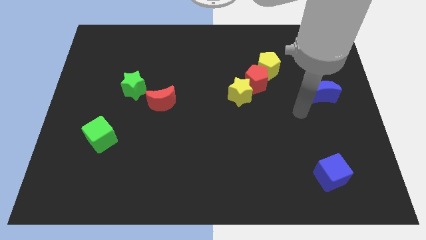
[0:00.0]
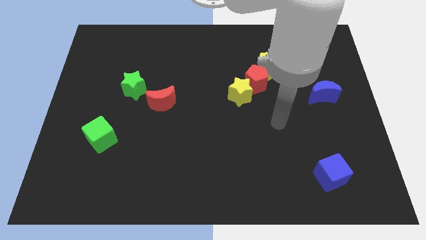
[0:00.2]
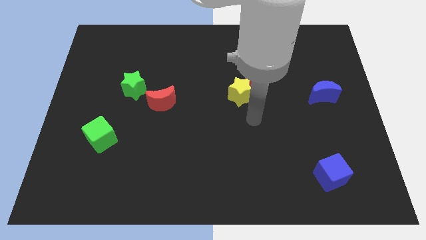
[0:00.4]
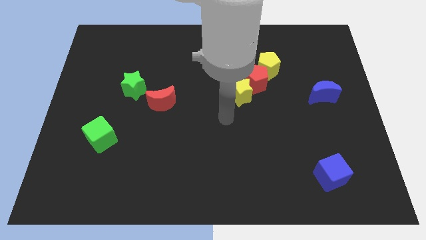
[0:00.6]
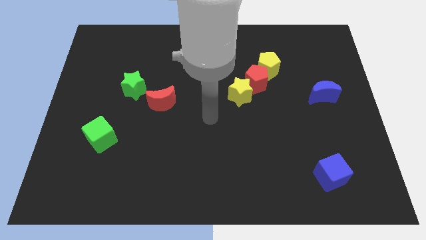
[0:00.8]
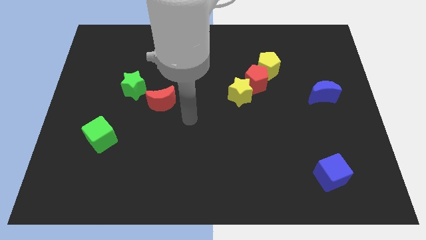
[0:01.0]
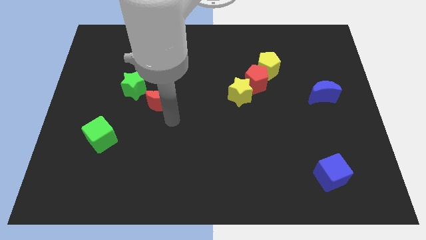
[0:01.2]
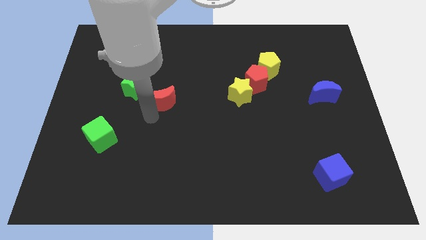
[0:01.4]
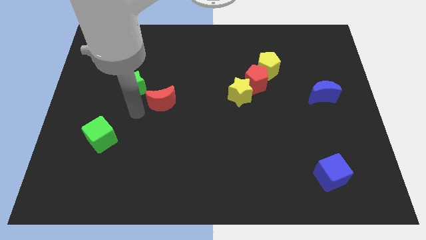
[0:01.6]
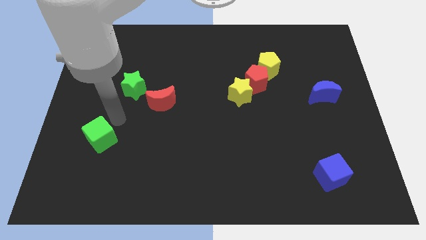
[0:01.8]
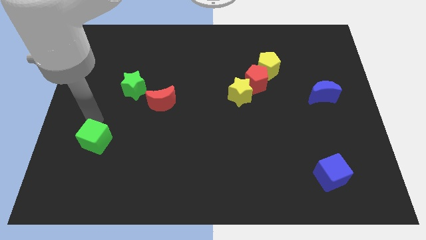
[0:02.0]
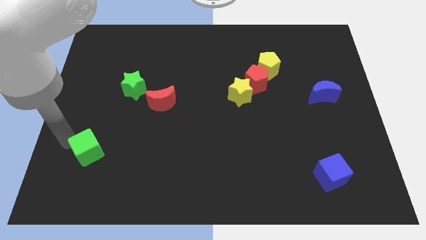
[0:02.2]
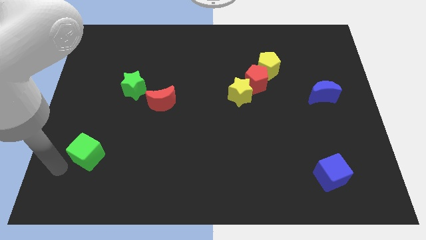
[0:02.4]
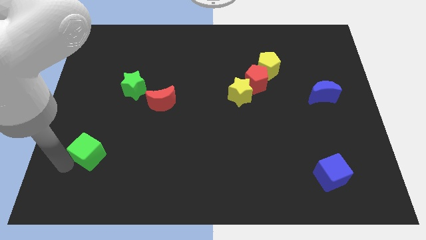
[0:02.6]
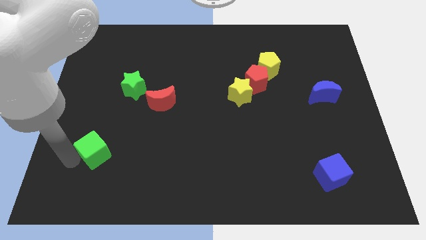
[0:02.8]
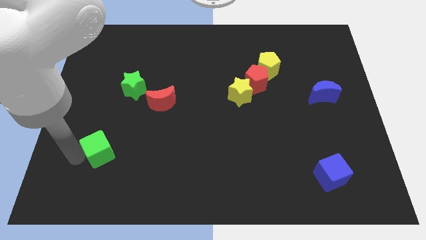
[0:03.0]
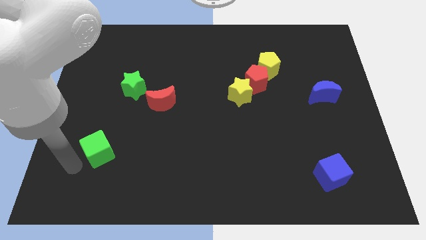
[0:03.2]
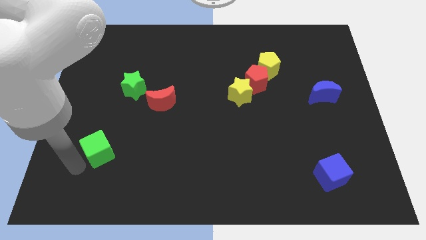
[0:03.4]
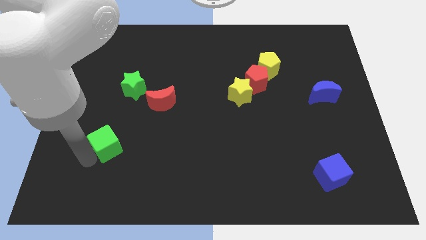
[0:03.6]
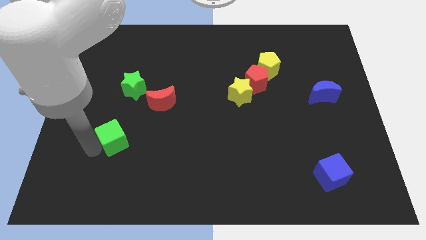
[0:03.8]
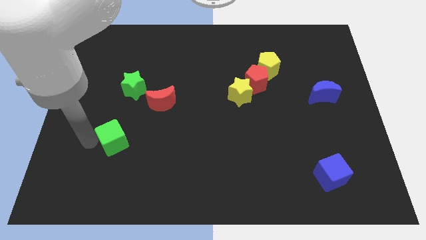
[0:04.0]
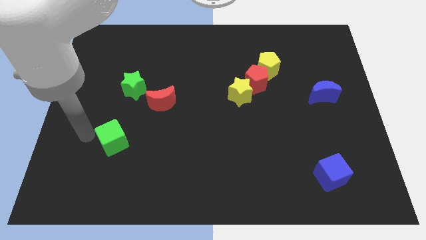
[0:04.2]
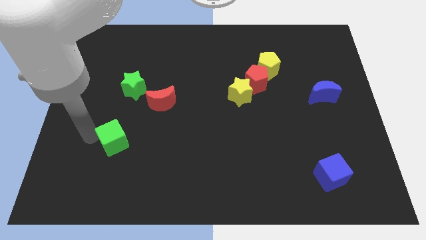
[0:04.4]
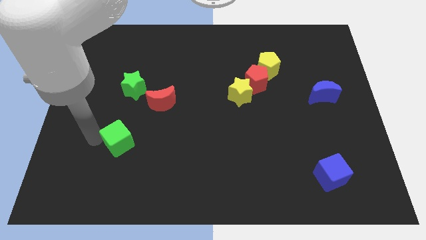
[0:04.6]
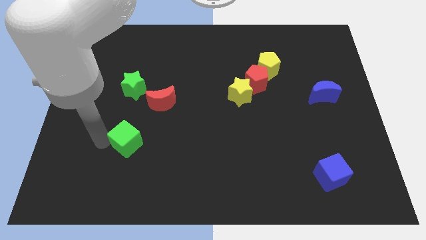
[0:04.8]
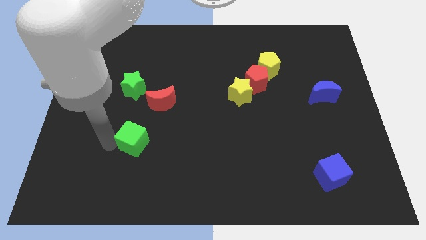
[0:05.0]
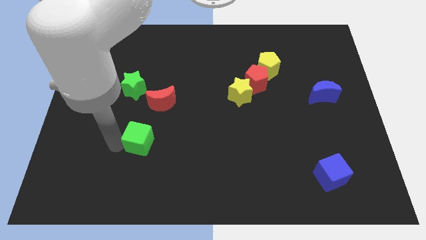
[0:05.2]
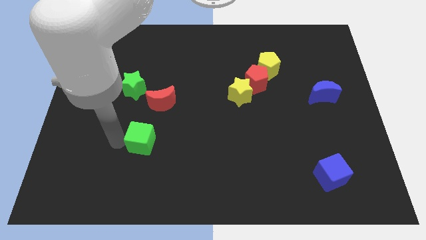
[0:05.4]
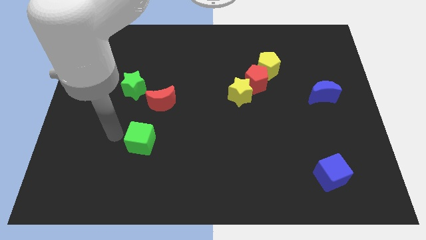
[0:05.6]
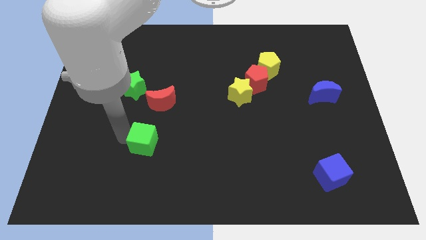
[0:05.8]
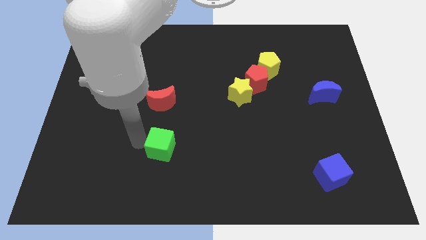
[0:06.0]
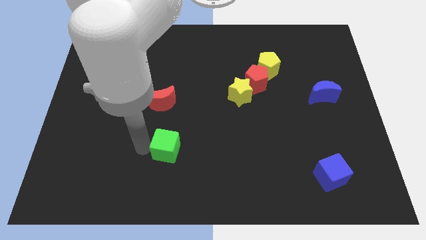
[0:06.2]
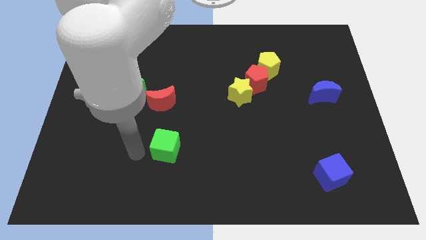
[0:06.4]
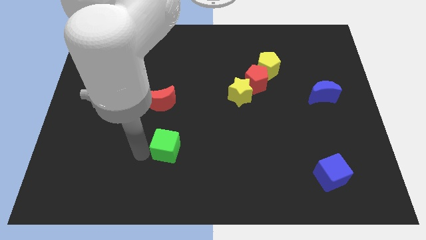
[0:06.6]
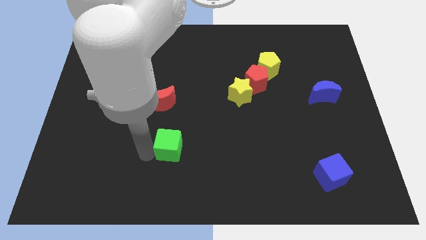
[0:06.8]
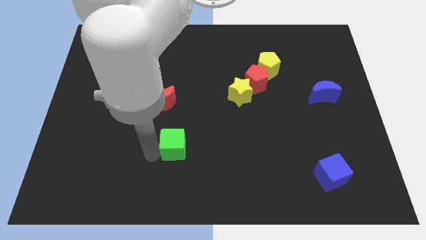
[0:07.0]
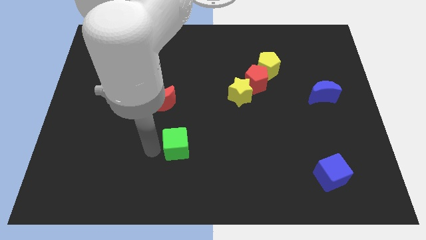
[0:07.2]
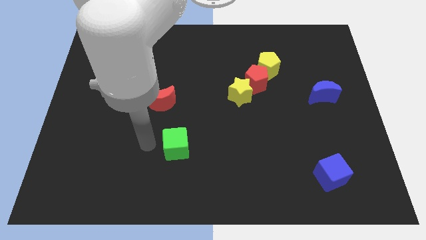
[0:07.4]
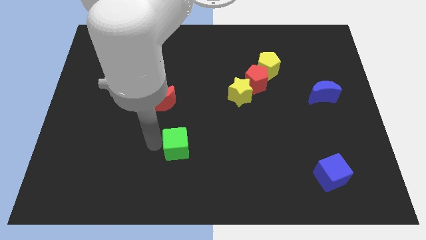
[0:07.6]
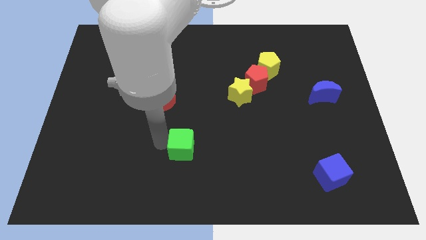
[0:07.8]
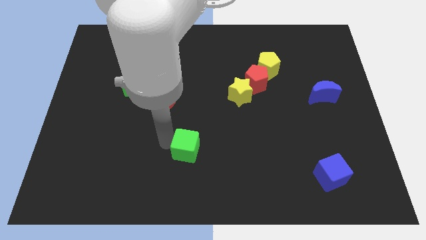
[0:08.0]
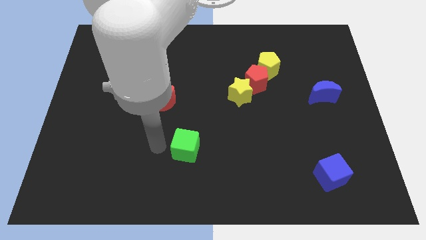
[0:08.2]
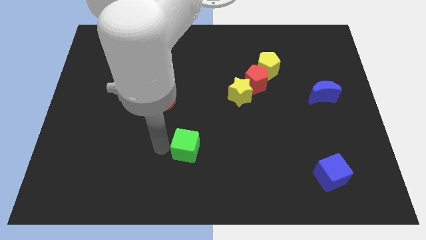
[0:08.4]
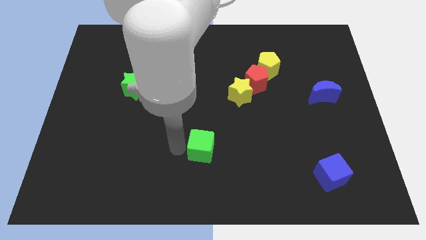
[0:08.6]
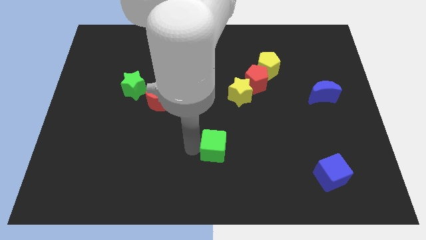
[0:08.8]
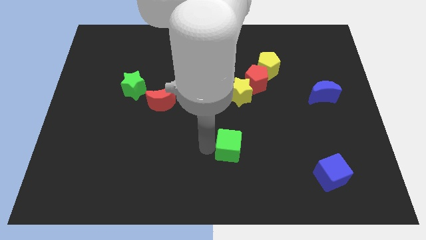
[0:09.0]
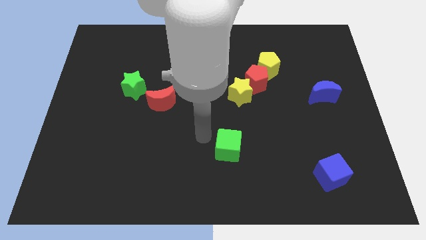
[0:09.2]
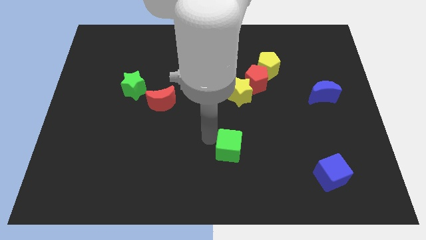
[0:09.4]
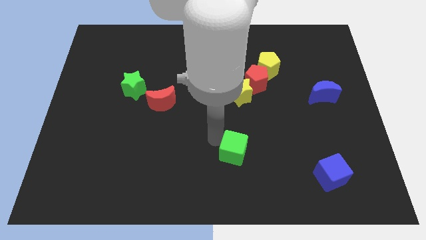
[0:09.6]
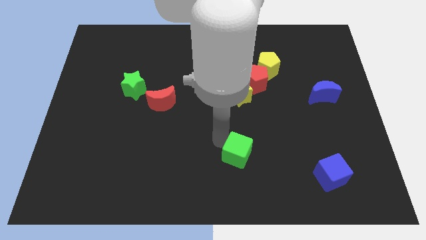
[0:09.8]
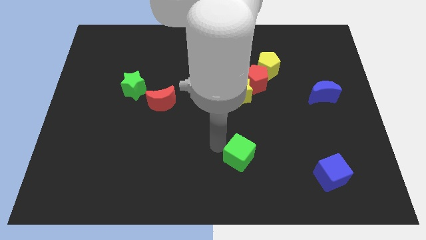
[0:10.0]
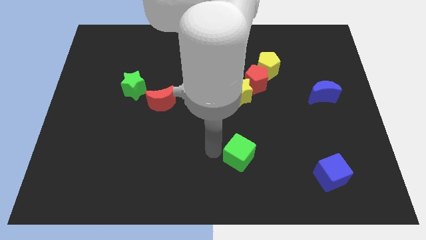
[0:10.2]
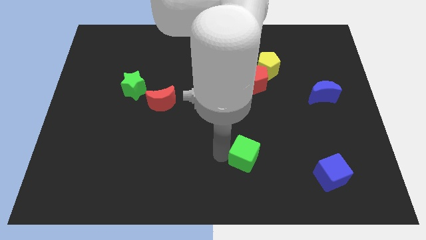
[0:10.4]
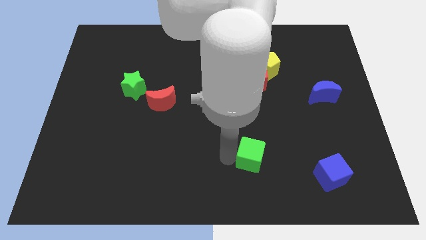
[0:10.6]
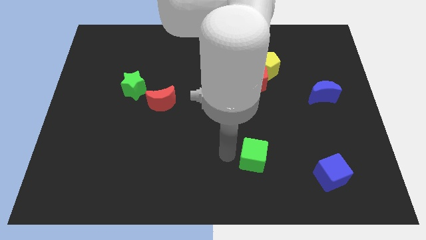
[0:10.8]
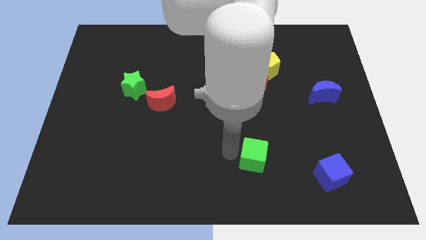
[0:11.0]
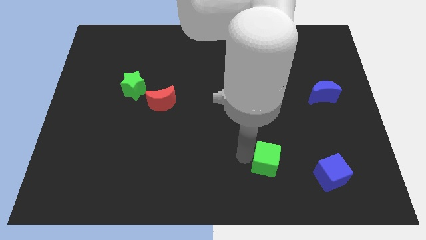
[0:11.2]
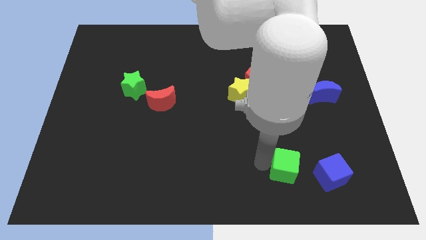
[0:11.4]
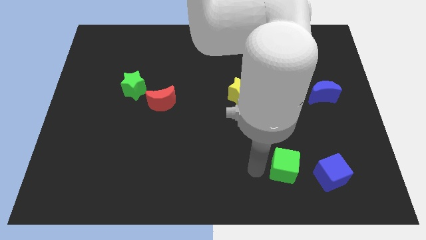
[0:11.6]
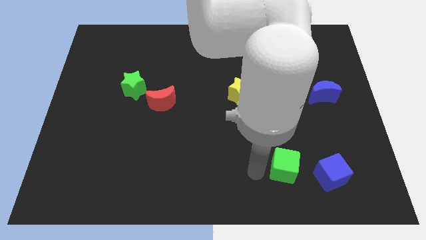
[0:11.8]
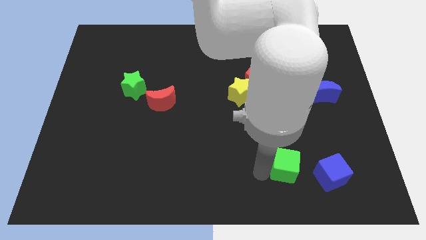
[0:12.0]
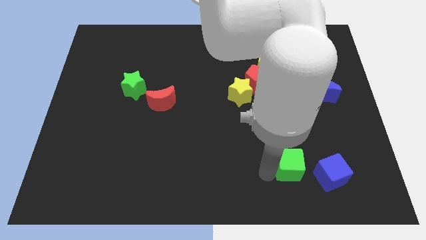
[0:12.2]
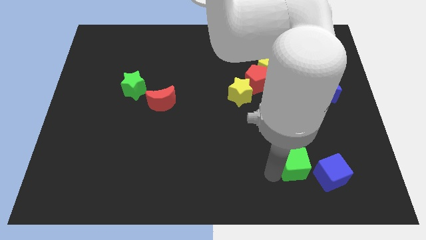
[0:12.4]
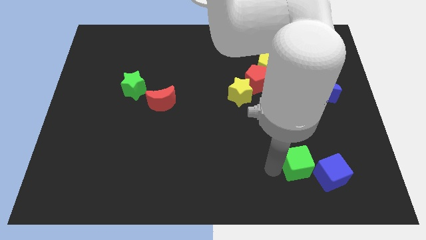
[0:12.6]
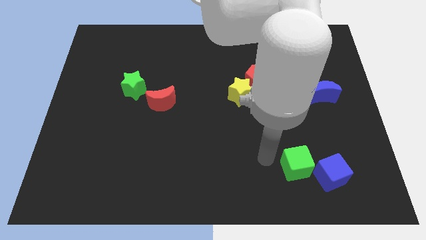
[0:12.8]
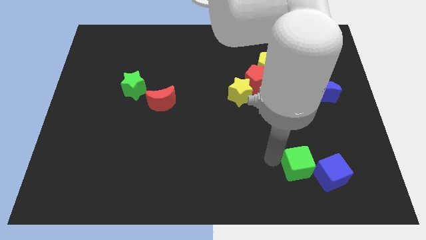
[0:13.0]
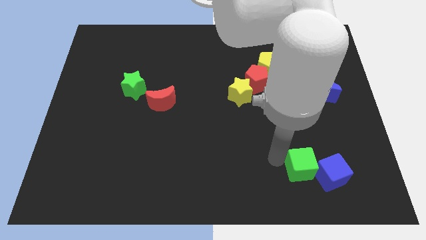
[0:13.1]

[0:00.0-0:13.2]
put the green cube close to the blue cube

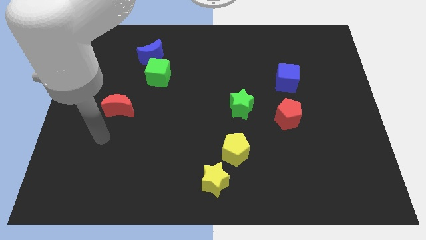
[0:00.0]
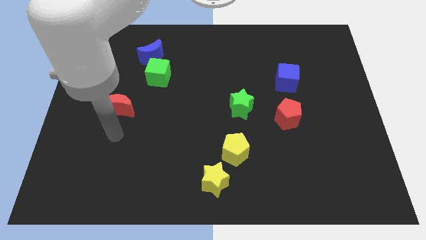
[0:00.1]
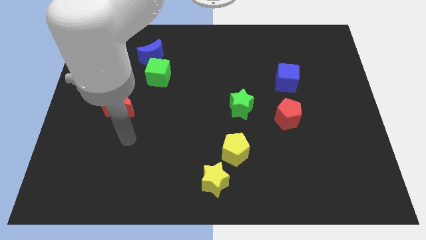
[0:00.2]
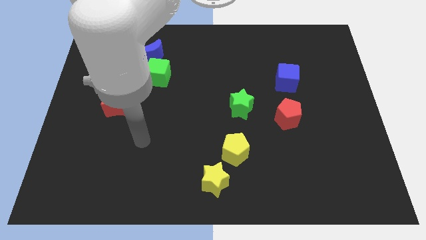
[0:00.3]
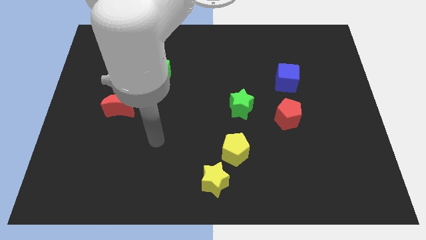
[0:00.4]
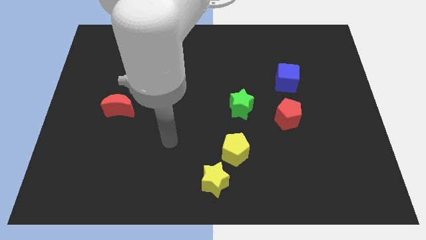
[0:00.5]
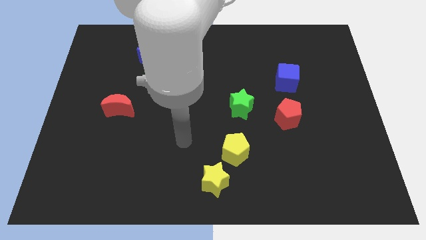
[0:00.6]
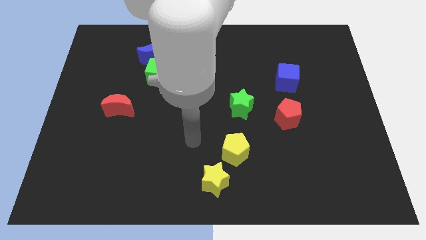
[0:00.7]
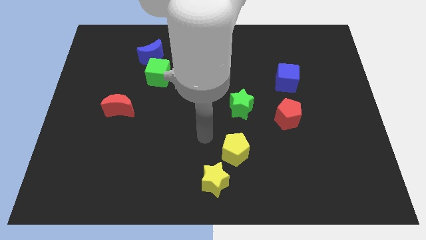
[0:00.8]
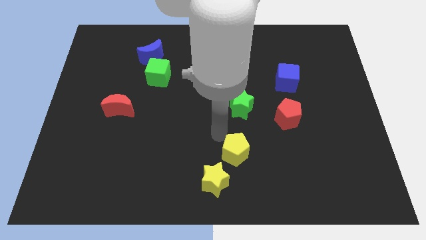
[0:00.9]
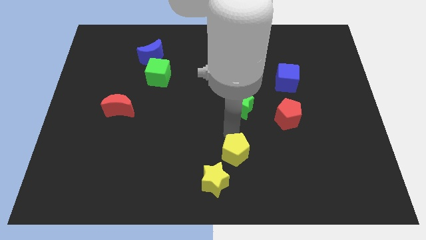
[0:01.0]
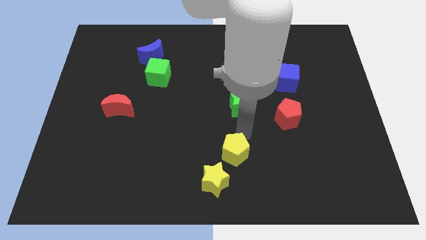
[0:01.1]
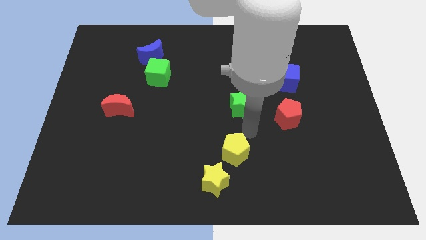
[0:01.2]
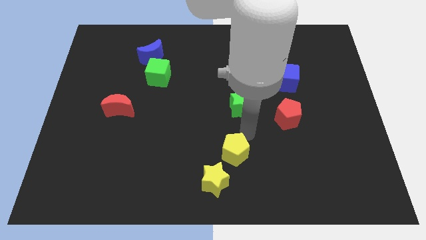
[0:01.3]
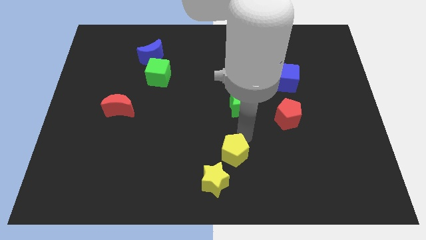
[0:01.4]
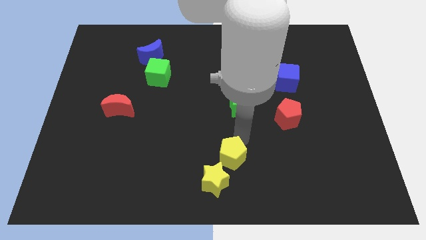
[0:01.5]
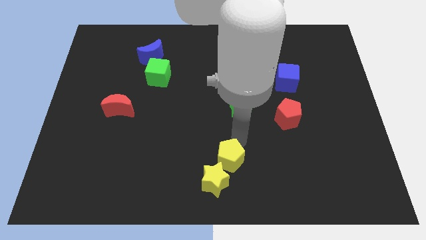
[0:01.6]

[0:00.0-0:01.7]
move the yellow pentagon to the yellow star
